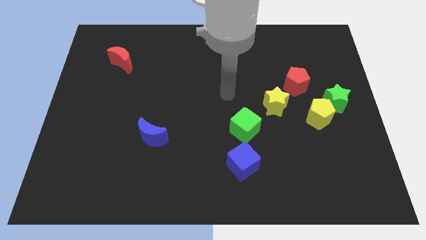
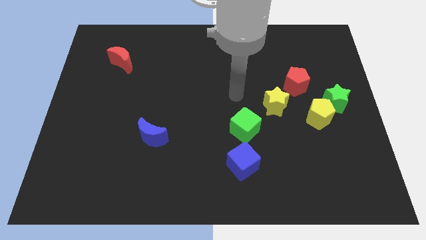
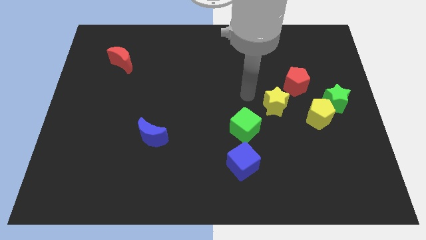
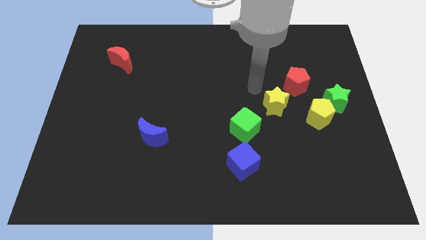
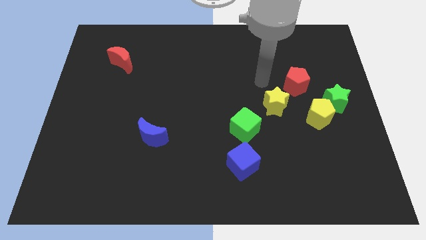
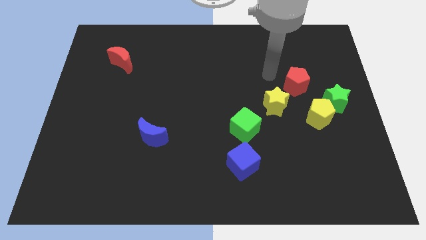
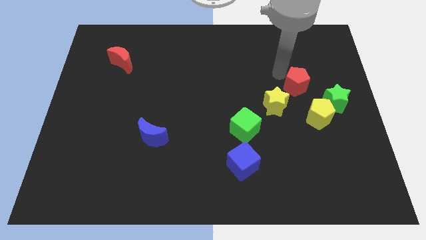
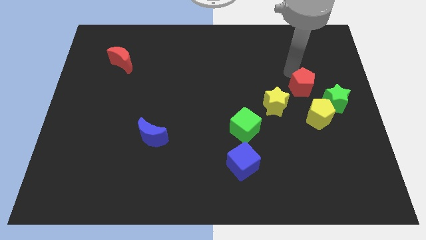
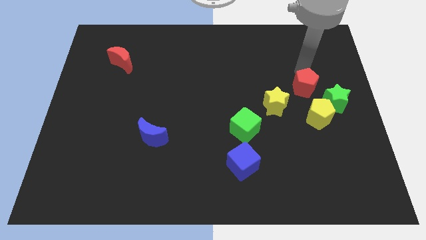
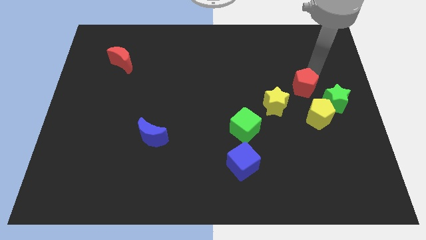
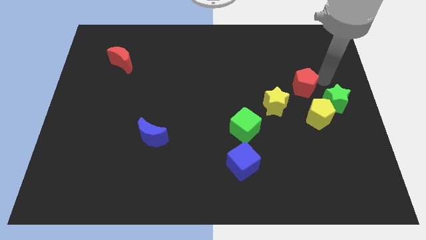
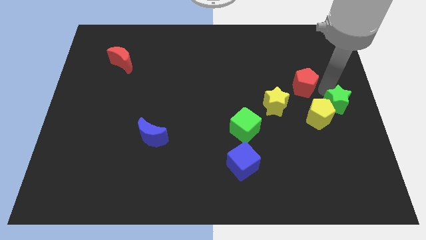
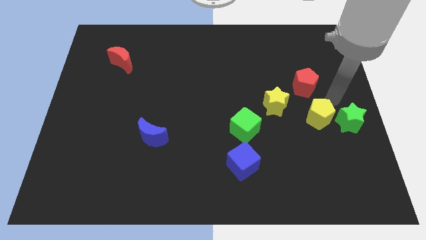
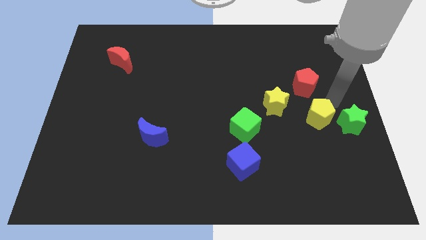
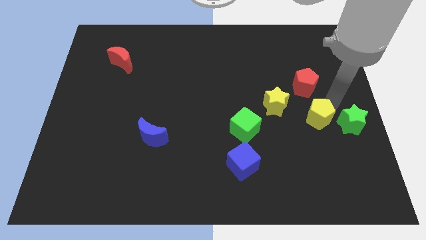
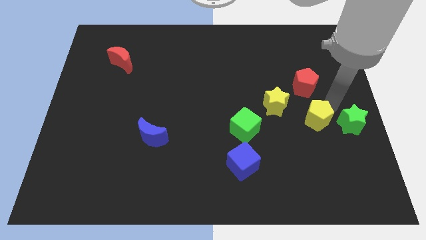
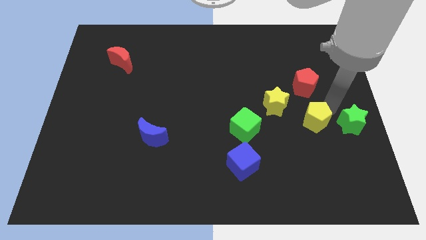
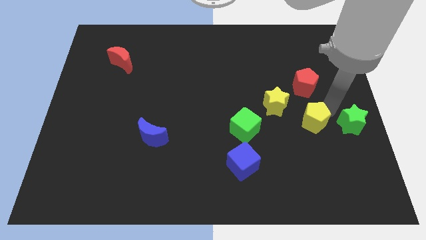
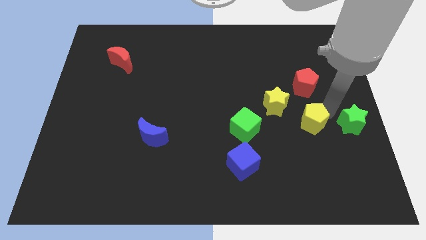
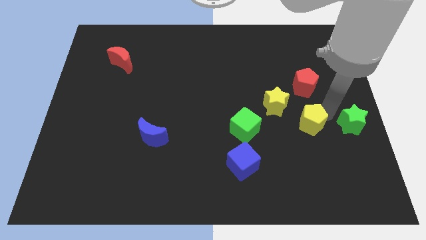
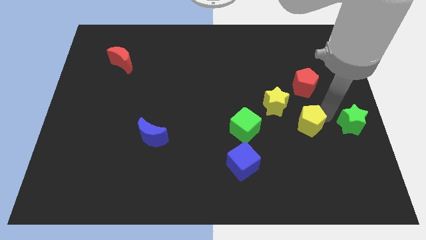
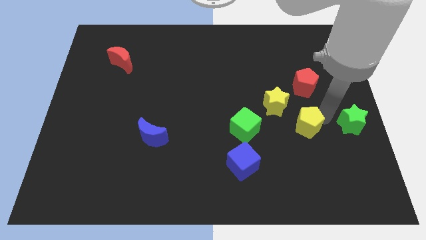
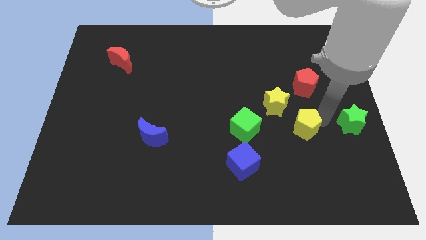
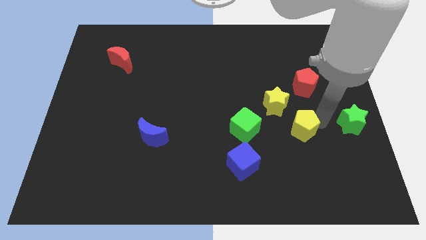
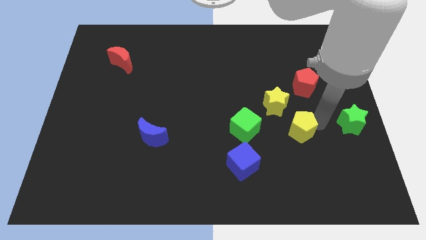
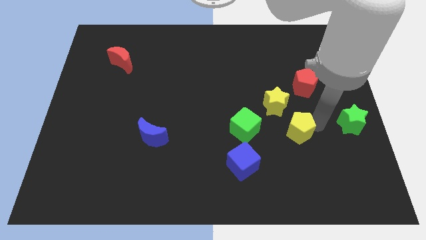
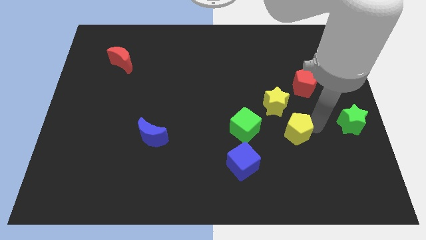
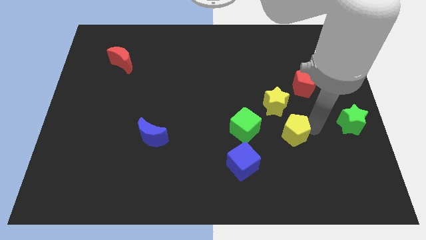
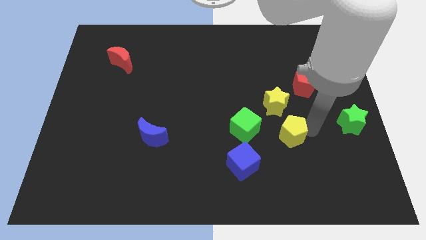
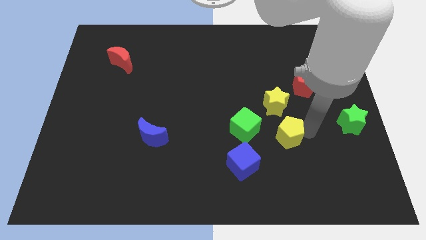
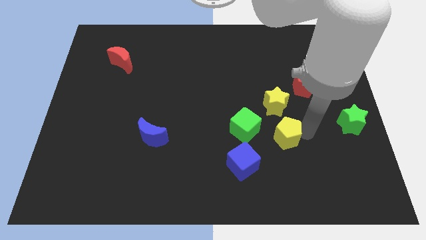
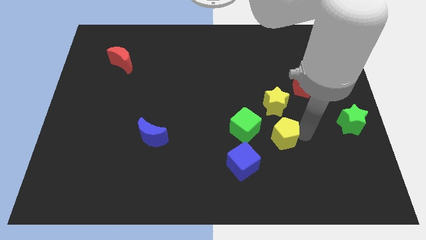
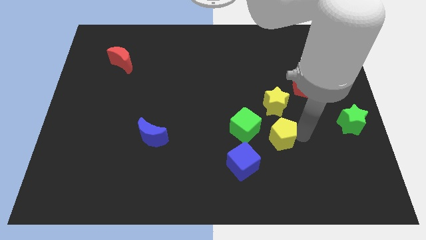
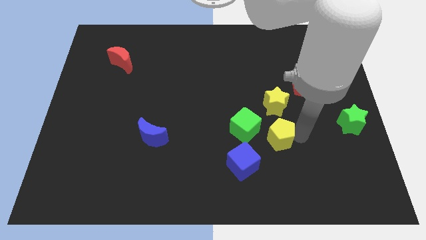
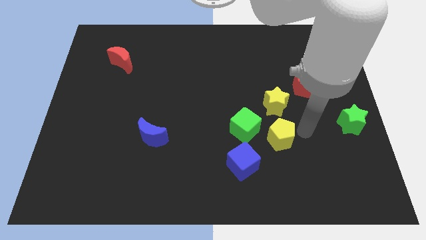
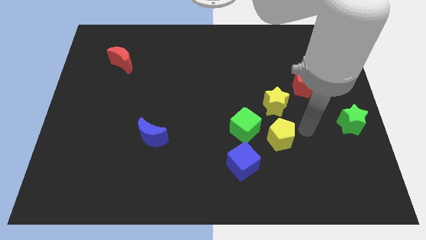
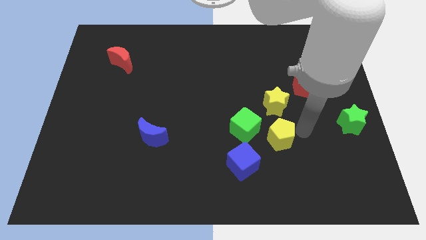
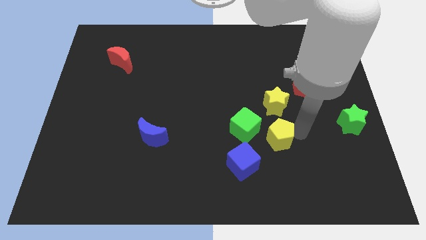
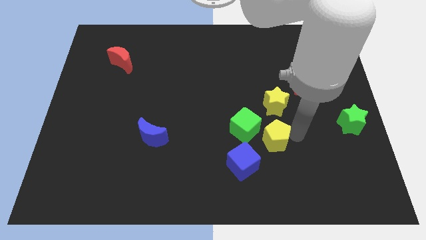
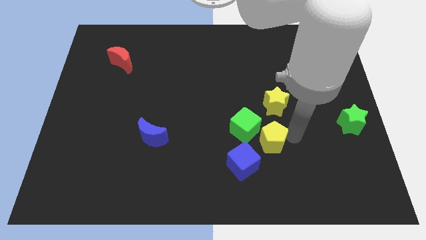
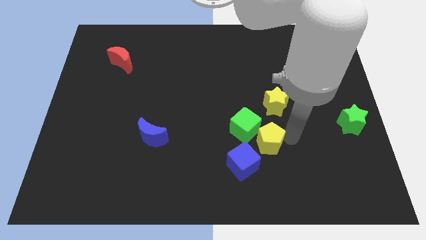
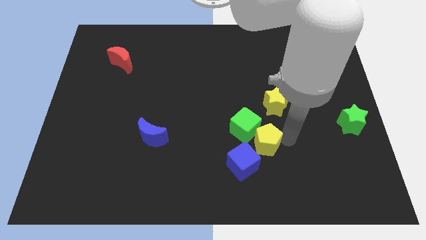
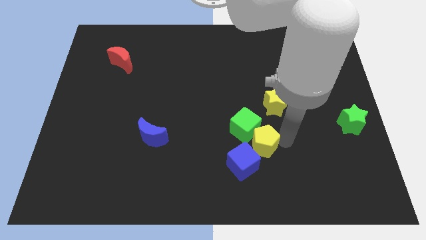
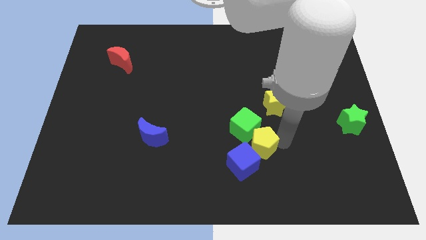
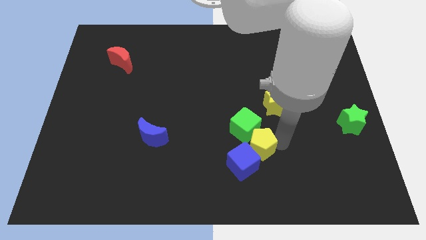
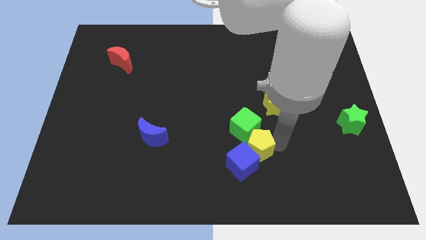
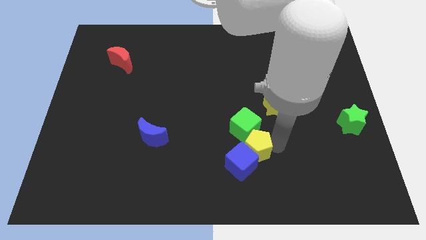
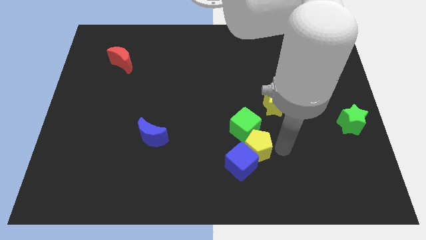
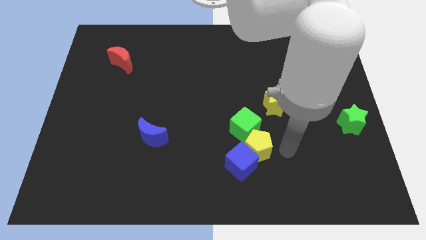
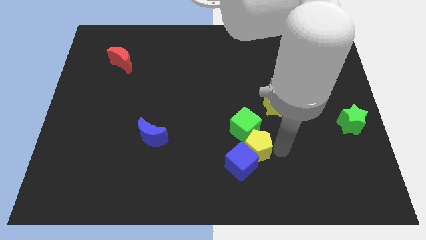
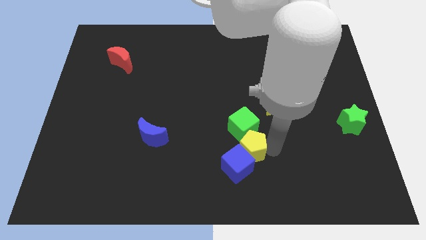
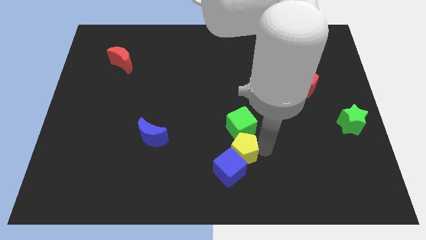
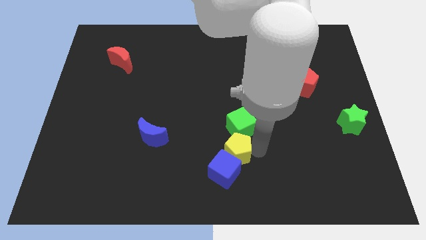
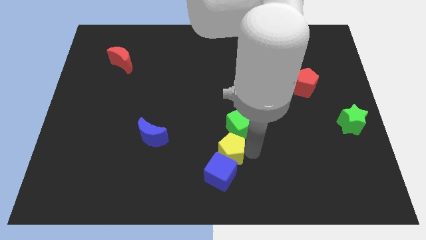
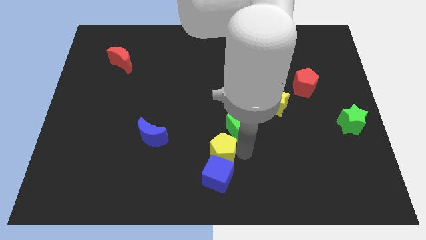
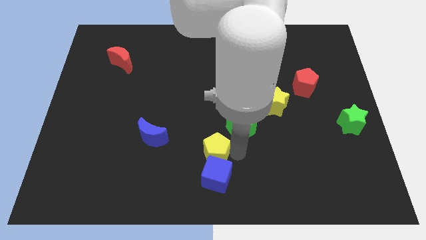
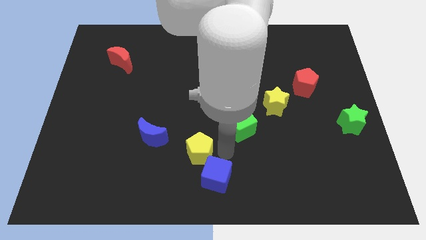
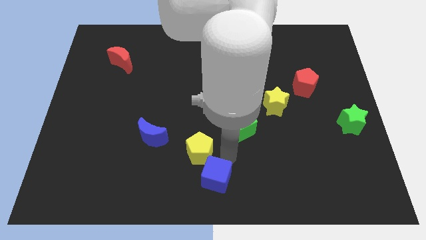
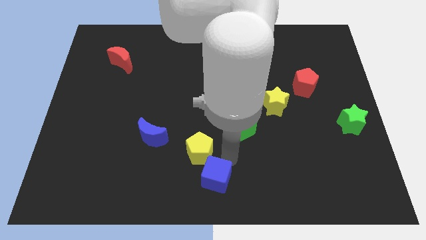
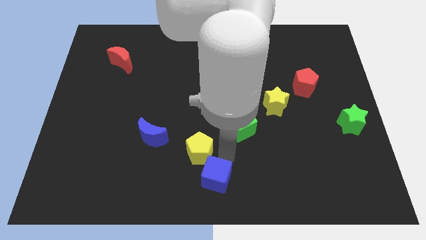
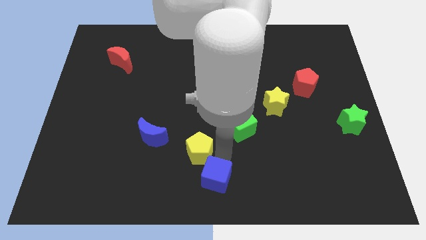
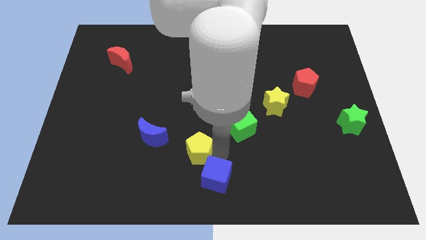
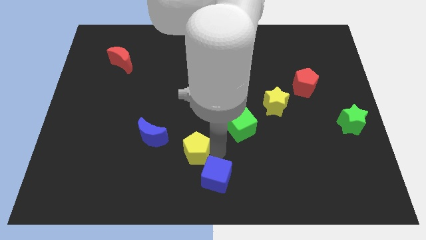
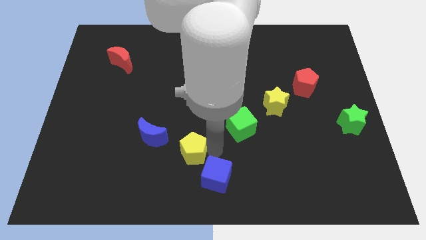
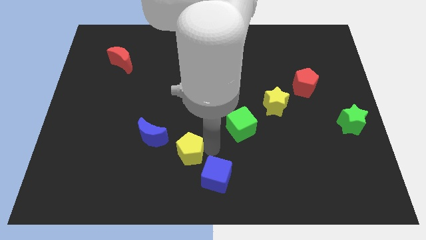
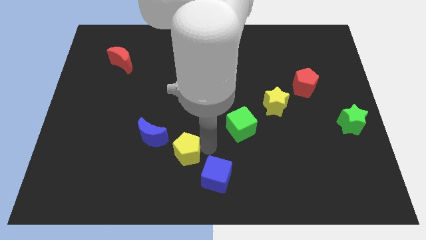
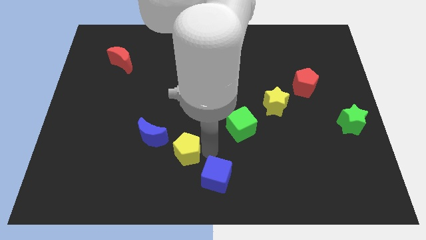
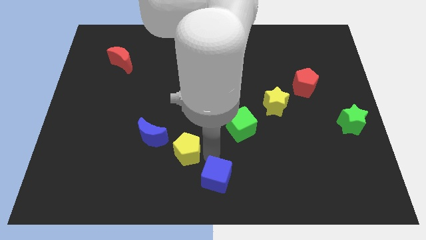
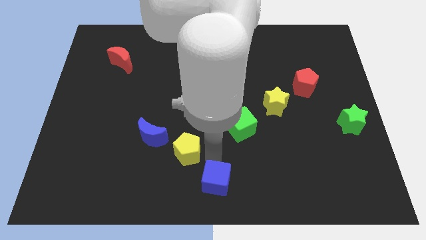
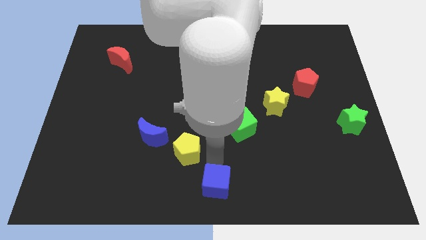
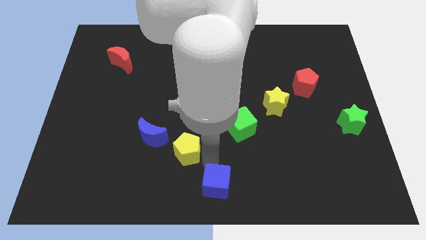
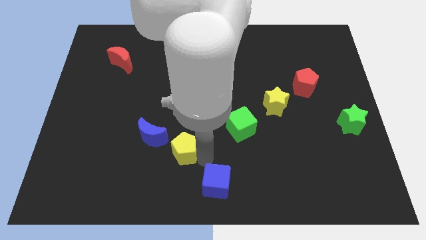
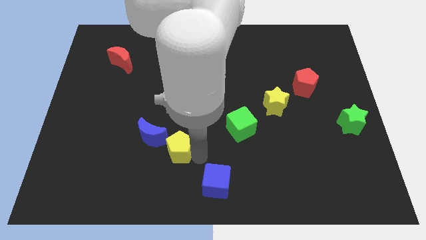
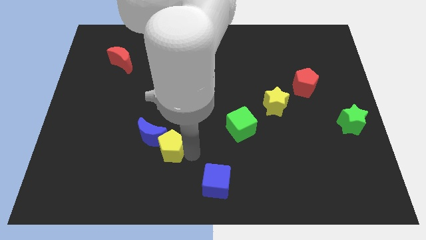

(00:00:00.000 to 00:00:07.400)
move the yellow pentagon to the blue moon

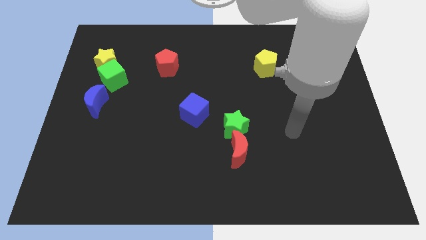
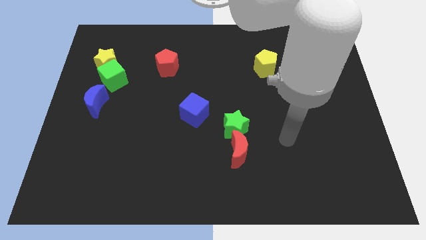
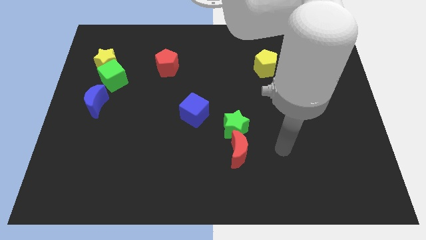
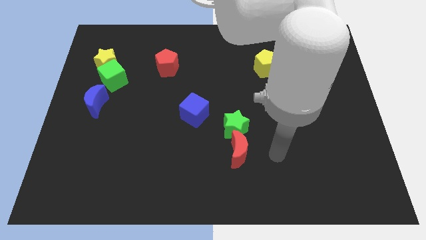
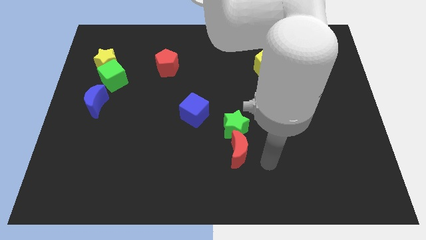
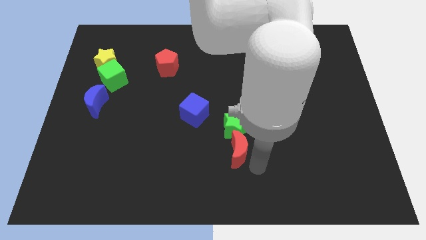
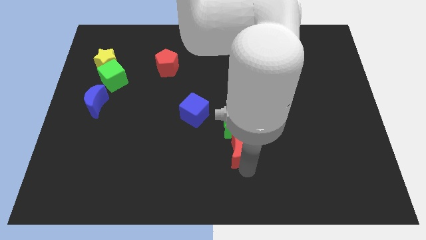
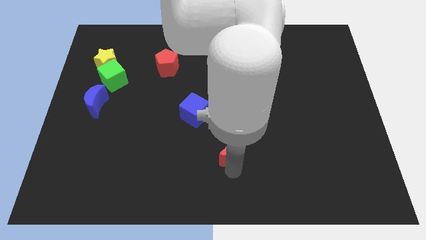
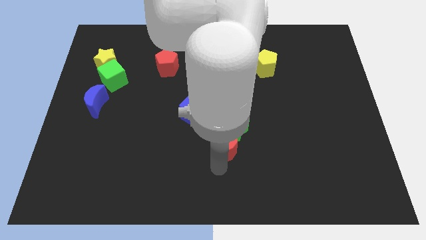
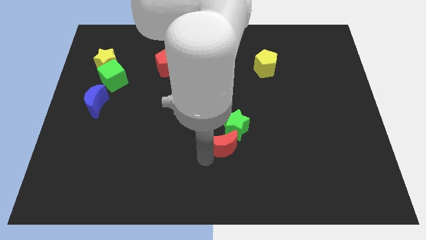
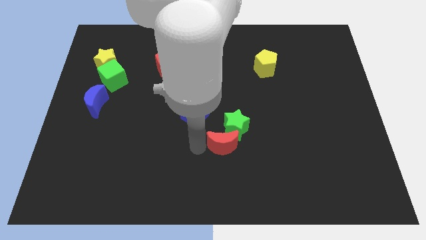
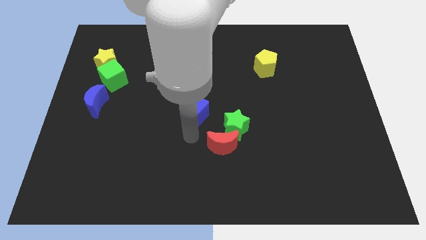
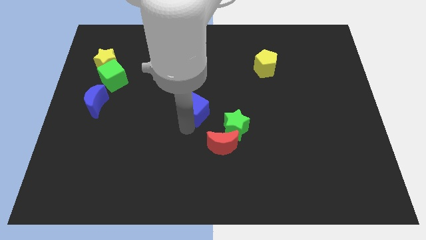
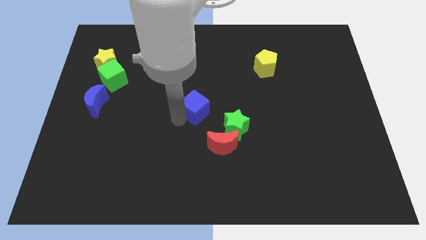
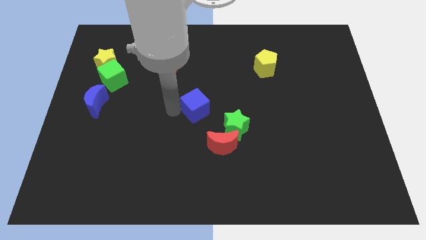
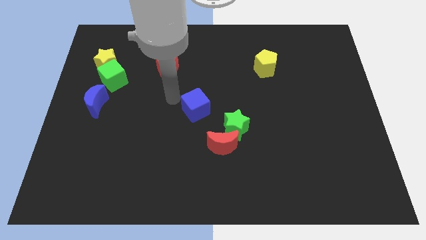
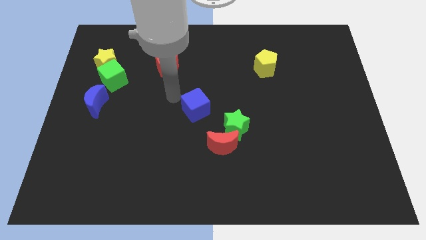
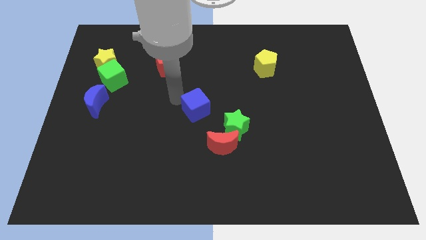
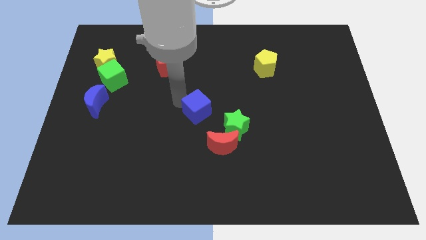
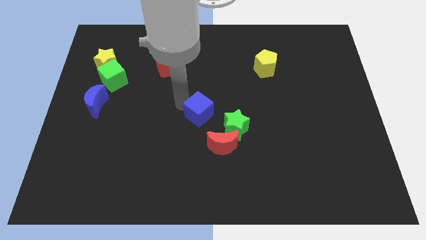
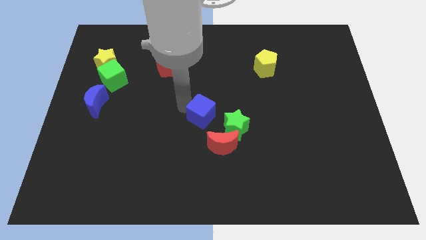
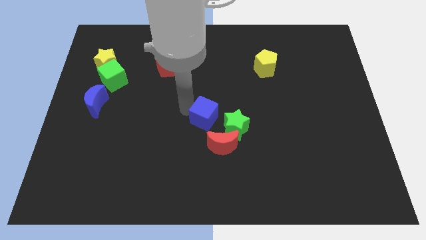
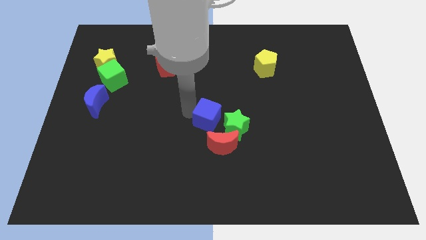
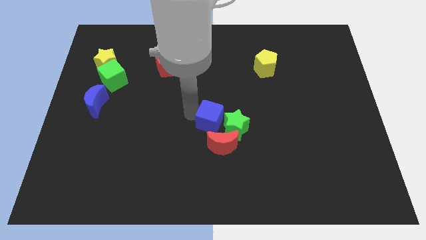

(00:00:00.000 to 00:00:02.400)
move the blue cube close to the green star
